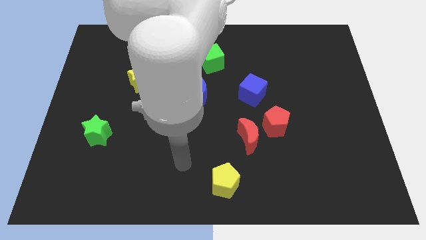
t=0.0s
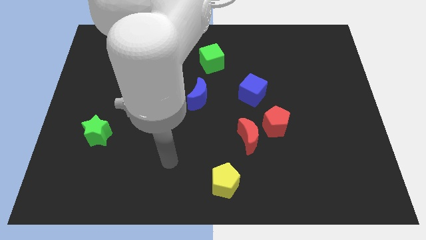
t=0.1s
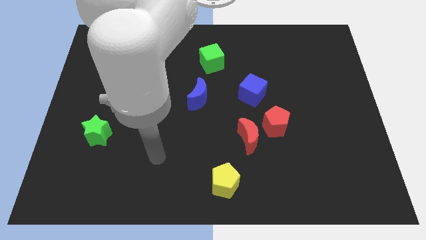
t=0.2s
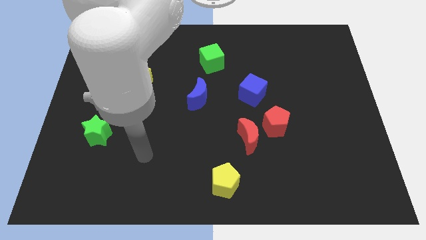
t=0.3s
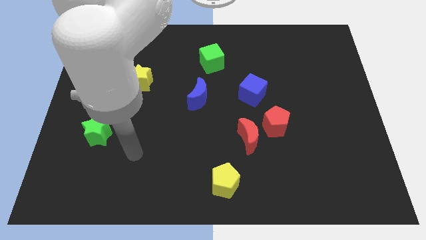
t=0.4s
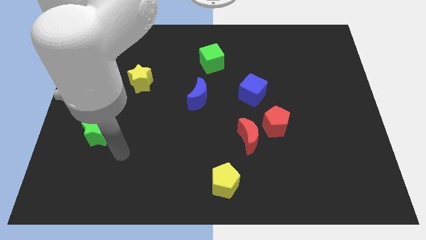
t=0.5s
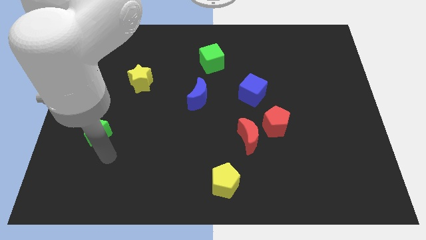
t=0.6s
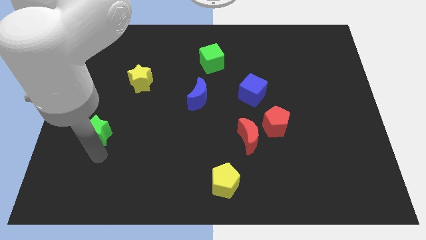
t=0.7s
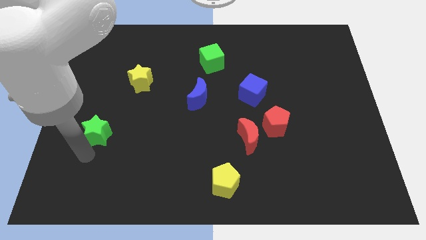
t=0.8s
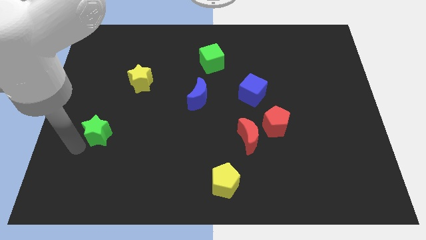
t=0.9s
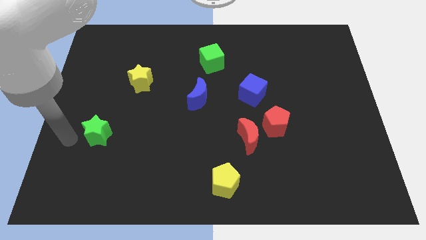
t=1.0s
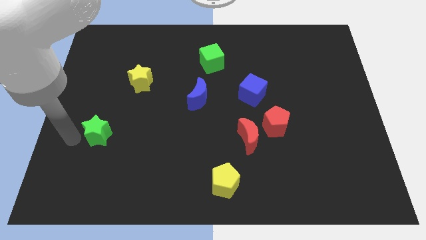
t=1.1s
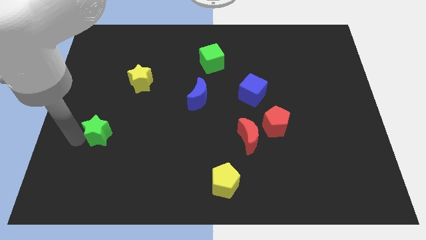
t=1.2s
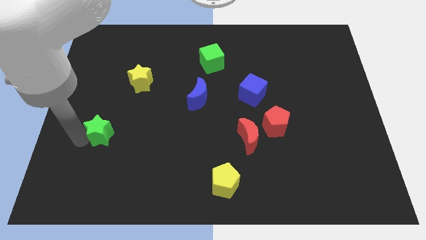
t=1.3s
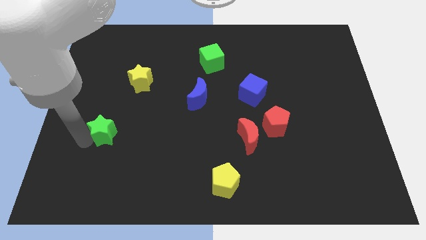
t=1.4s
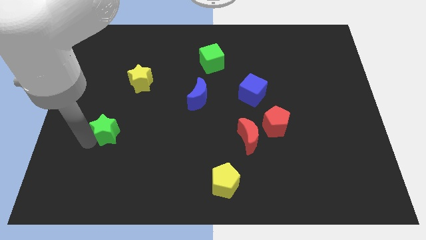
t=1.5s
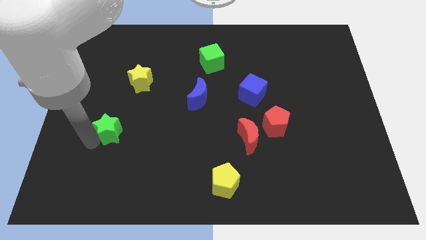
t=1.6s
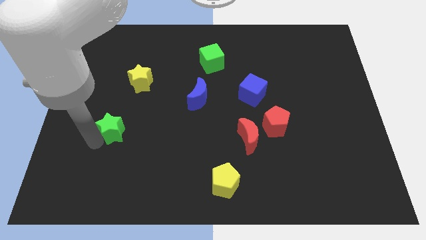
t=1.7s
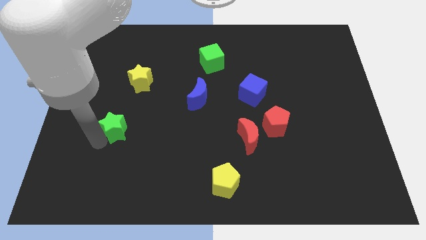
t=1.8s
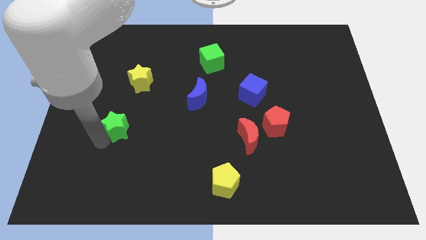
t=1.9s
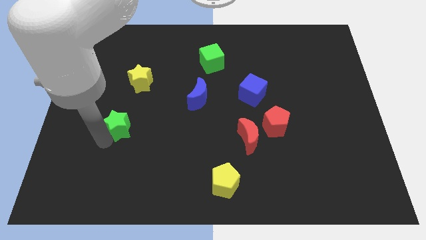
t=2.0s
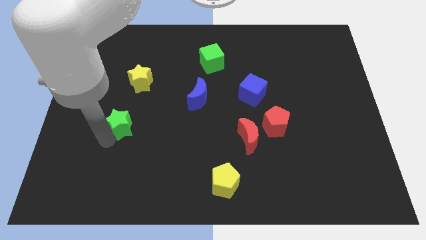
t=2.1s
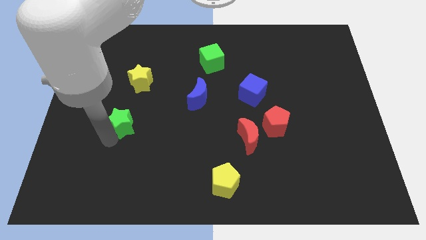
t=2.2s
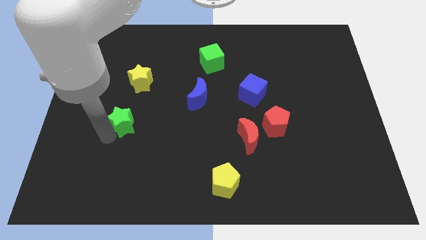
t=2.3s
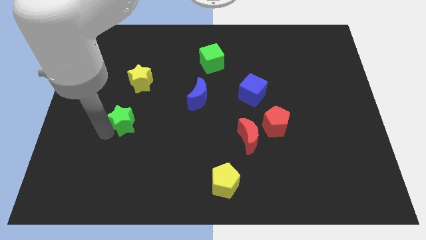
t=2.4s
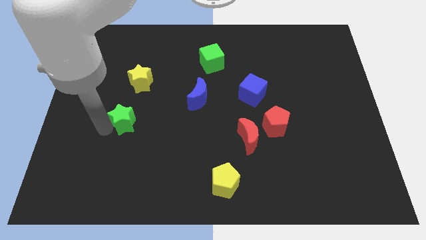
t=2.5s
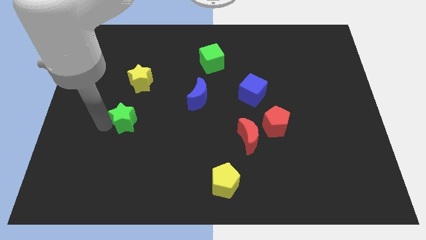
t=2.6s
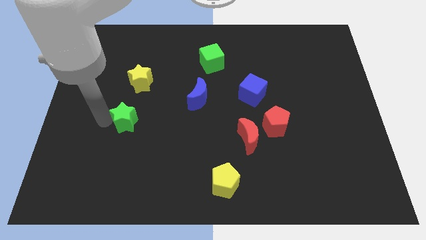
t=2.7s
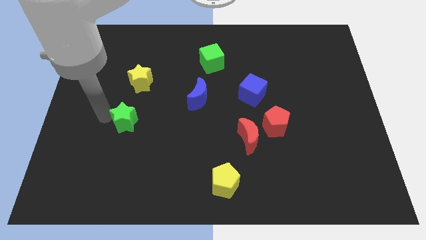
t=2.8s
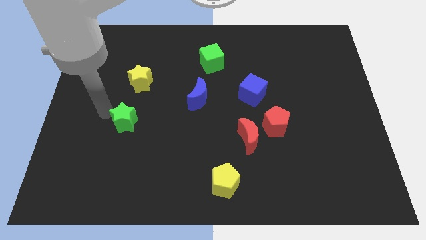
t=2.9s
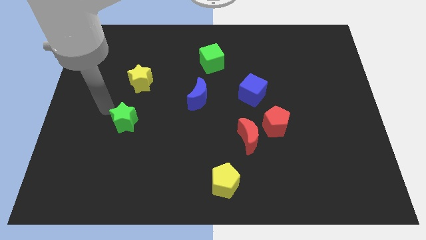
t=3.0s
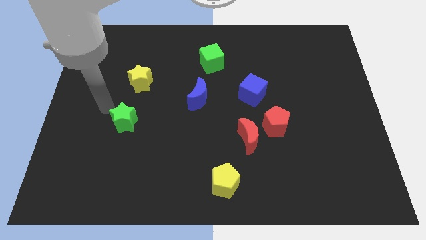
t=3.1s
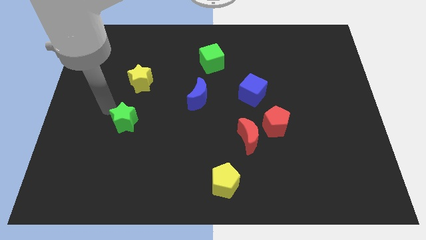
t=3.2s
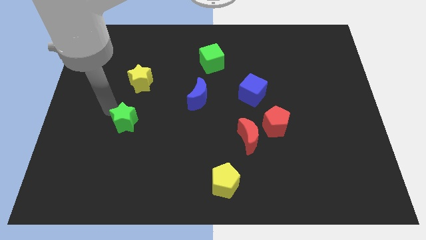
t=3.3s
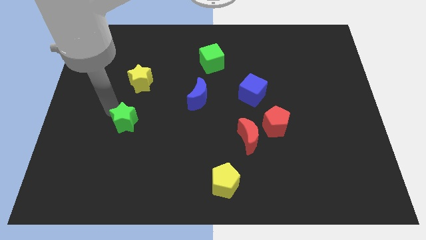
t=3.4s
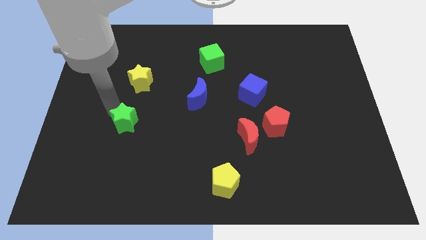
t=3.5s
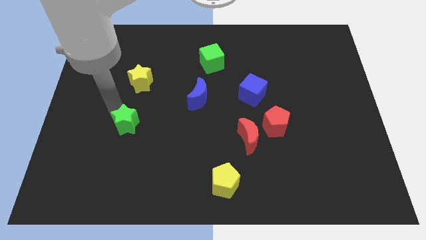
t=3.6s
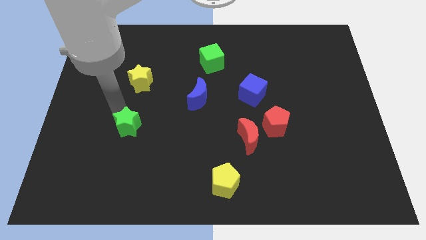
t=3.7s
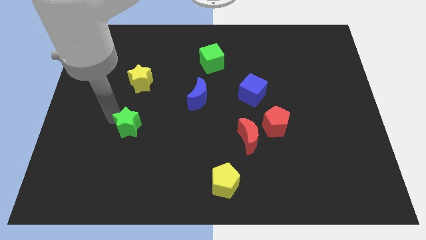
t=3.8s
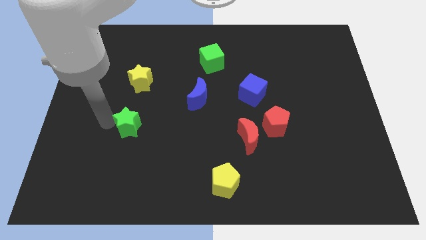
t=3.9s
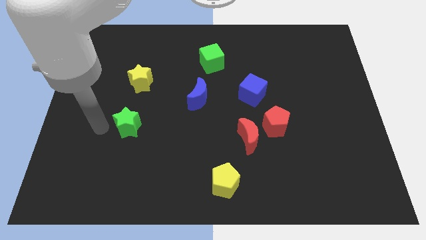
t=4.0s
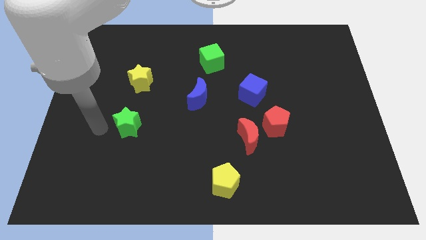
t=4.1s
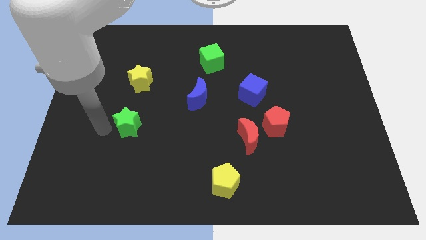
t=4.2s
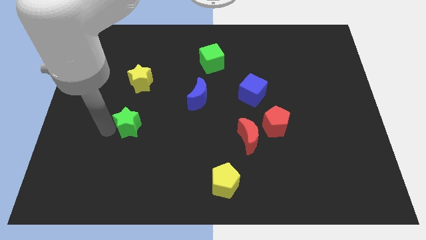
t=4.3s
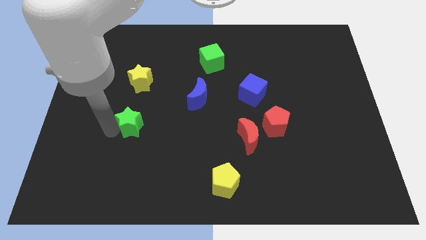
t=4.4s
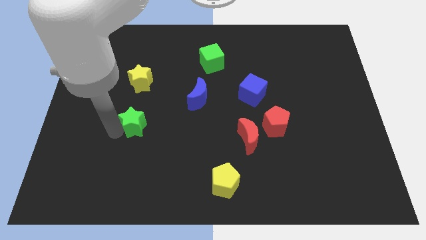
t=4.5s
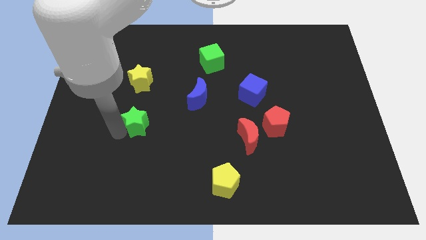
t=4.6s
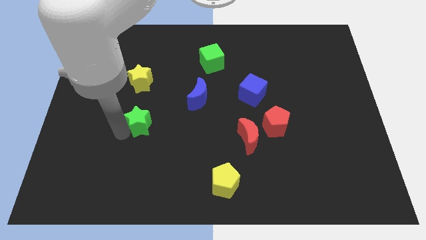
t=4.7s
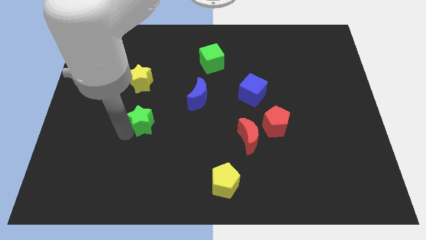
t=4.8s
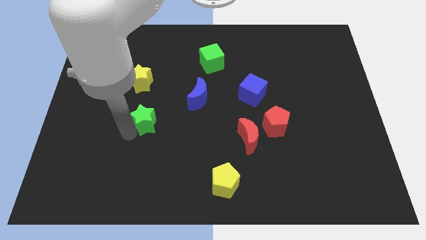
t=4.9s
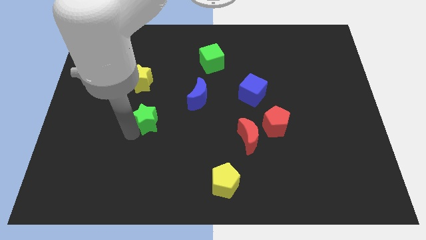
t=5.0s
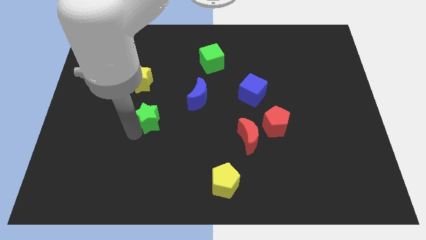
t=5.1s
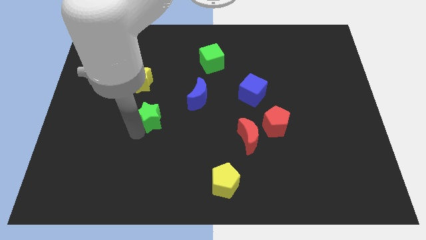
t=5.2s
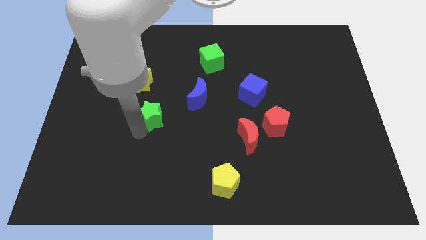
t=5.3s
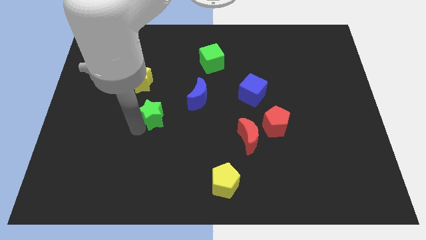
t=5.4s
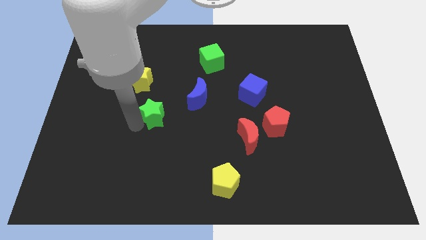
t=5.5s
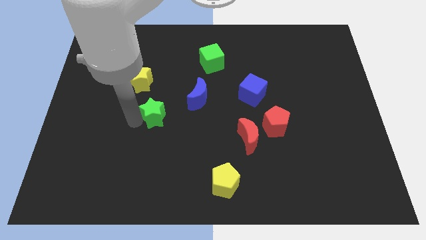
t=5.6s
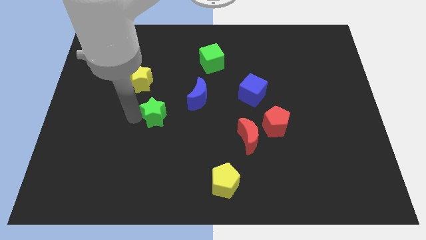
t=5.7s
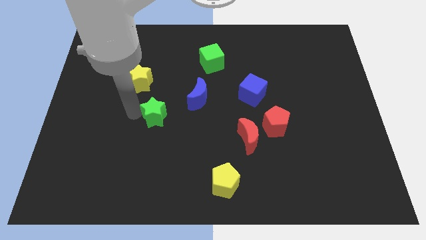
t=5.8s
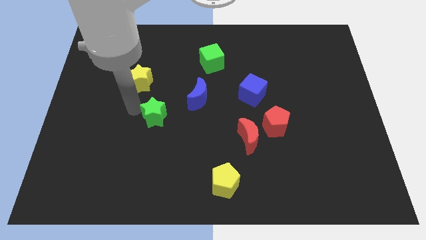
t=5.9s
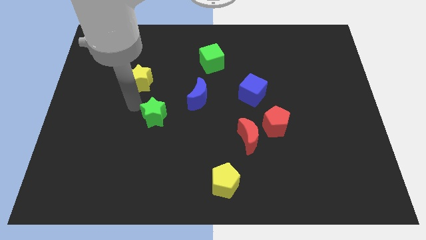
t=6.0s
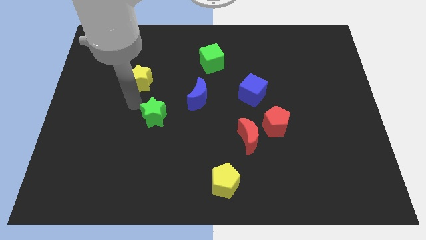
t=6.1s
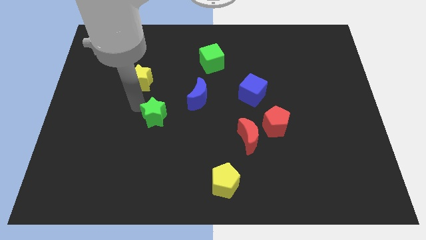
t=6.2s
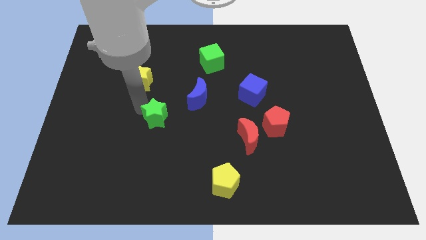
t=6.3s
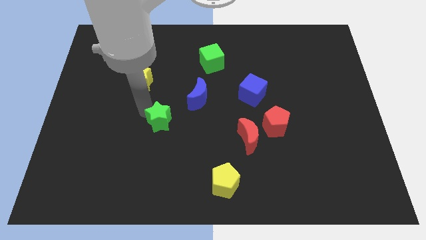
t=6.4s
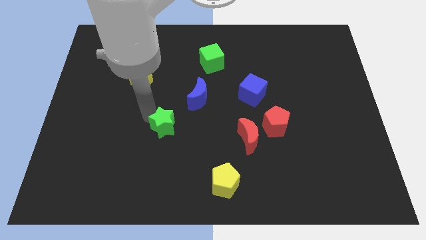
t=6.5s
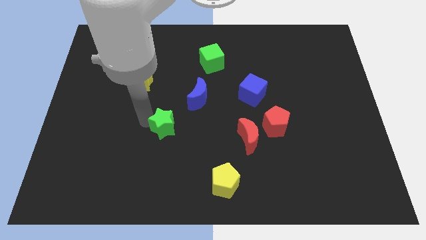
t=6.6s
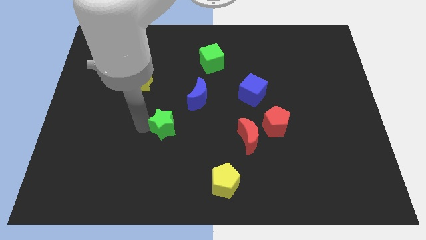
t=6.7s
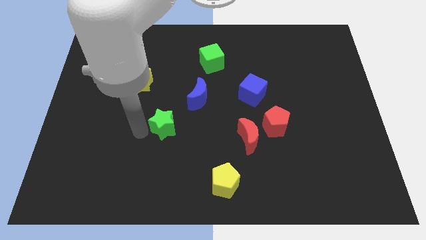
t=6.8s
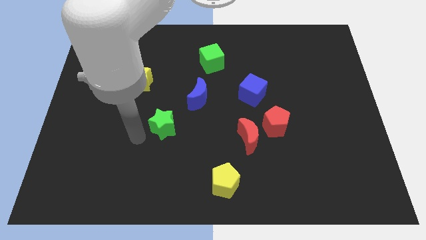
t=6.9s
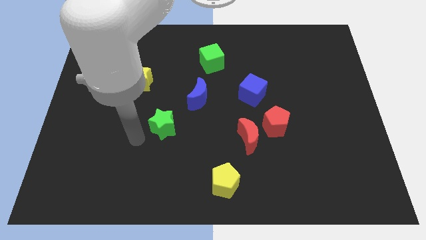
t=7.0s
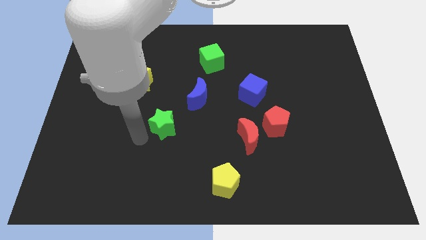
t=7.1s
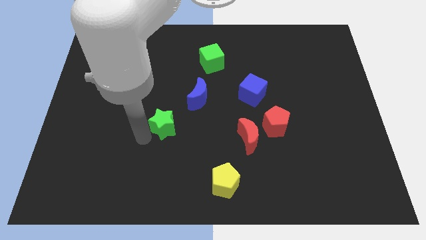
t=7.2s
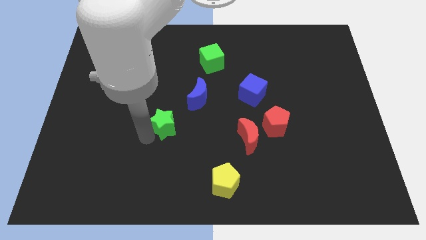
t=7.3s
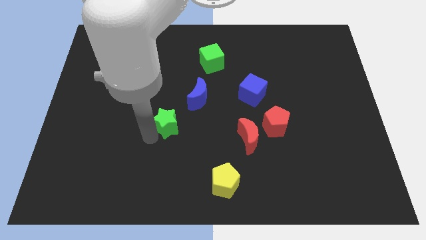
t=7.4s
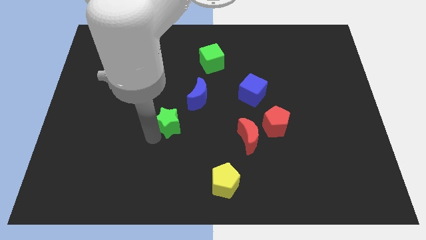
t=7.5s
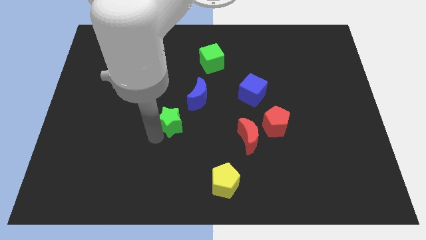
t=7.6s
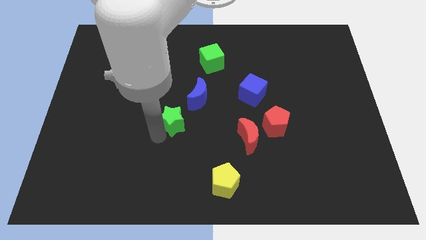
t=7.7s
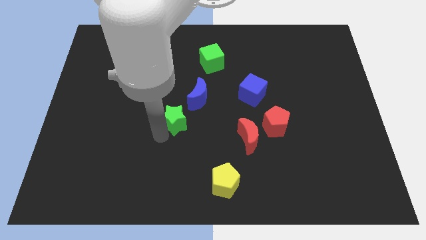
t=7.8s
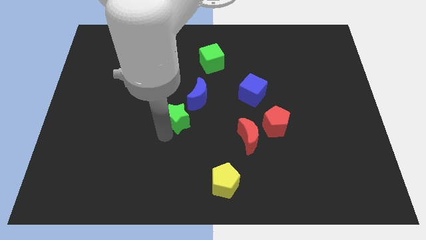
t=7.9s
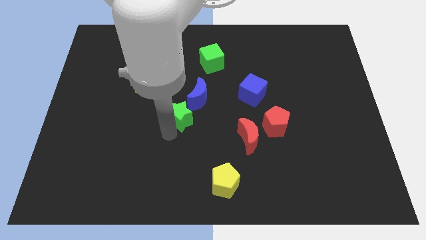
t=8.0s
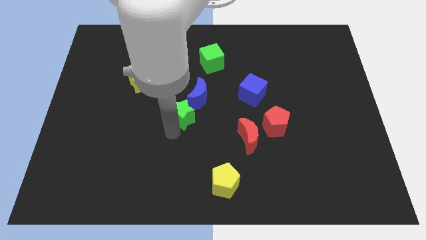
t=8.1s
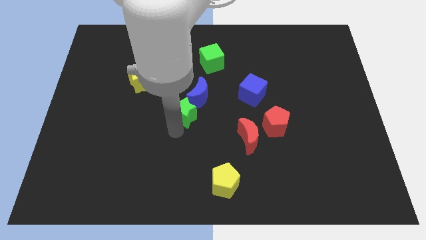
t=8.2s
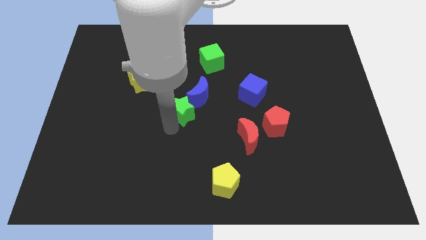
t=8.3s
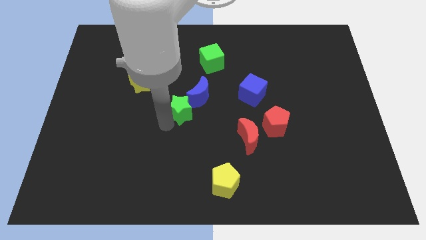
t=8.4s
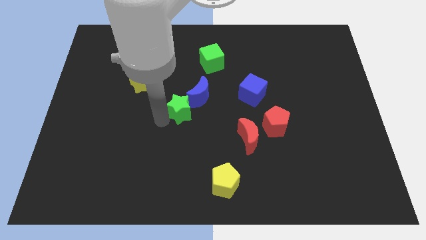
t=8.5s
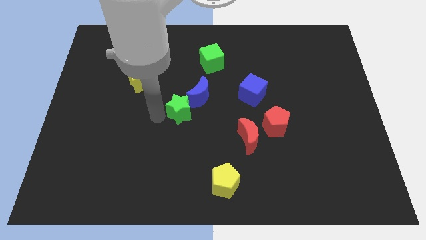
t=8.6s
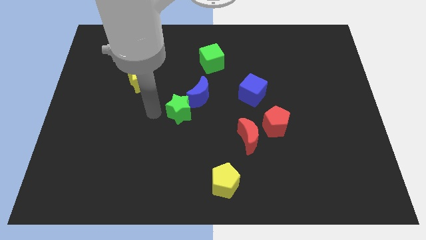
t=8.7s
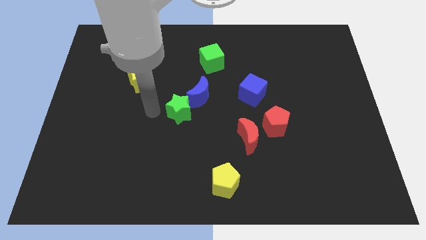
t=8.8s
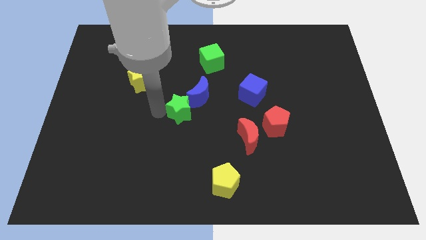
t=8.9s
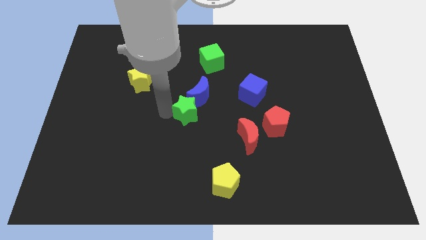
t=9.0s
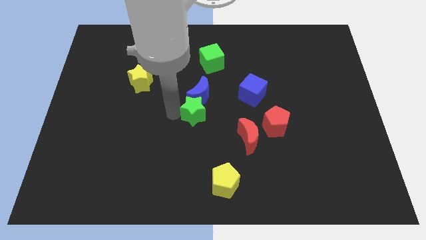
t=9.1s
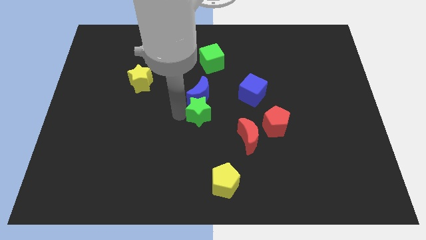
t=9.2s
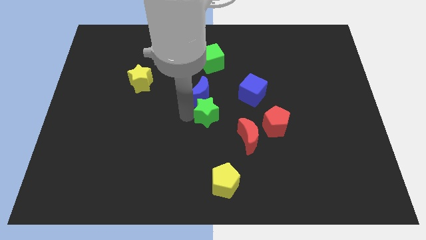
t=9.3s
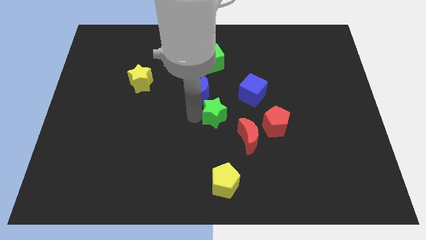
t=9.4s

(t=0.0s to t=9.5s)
move the green star to the bottom left of the blue cube
